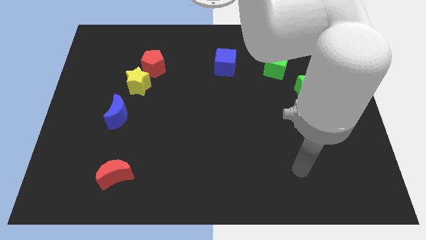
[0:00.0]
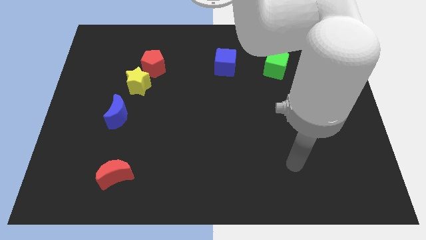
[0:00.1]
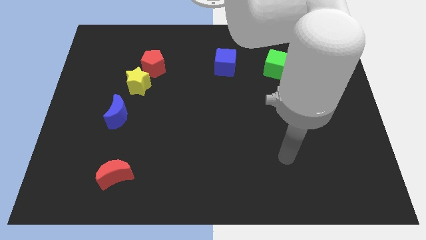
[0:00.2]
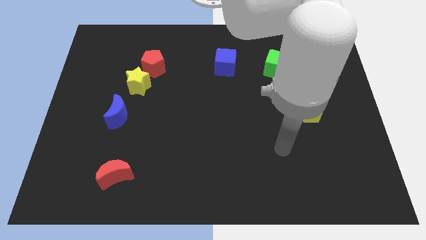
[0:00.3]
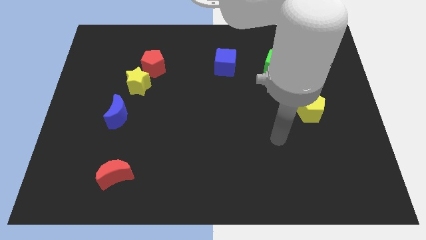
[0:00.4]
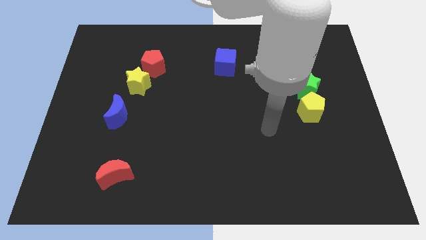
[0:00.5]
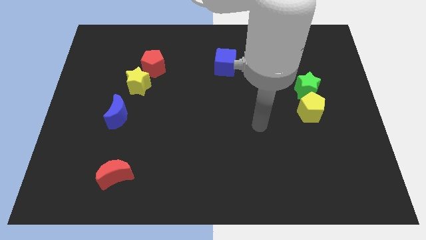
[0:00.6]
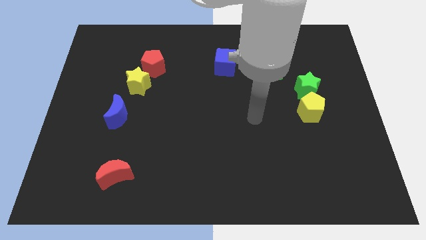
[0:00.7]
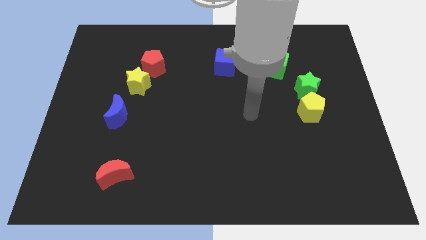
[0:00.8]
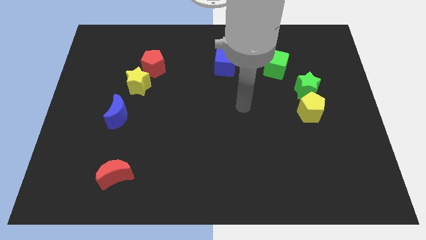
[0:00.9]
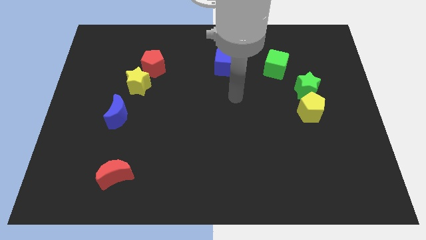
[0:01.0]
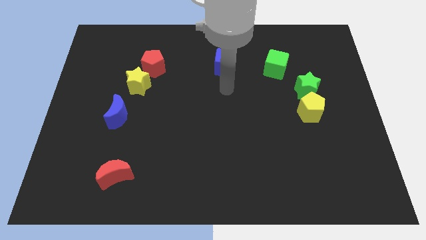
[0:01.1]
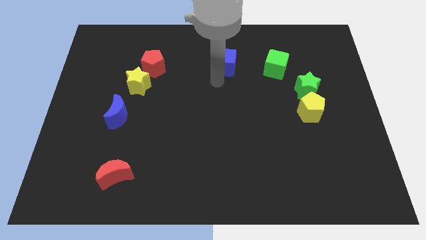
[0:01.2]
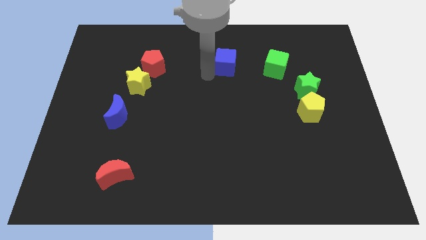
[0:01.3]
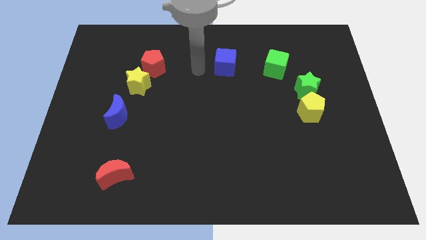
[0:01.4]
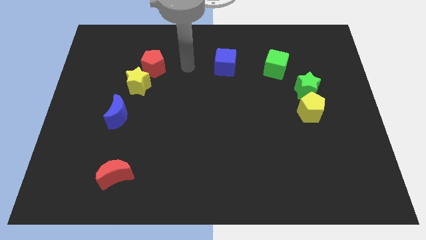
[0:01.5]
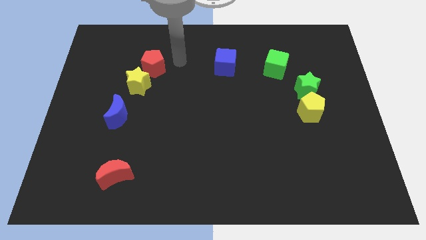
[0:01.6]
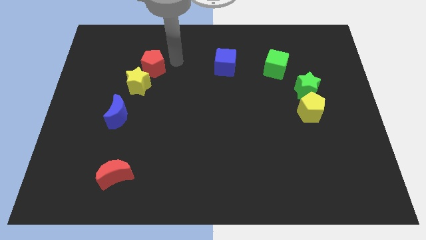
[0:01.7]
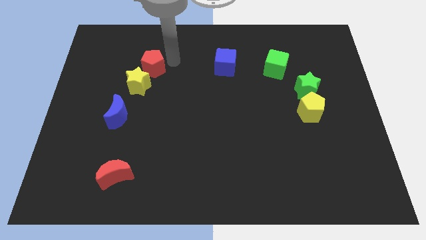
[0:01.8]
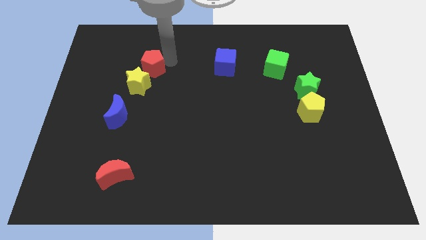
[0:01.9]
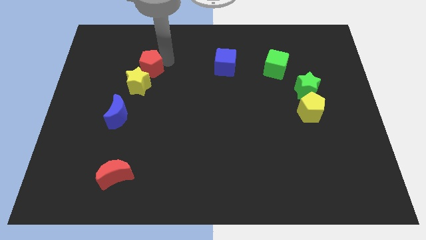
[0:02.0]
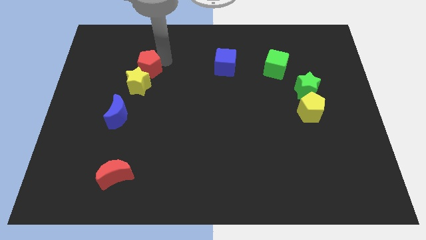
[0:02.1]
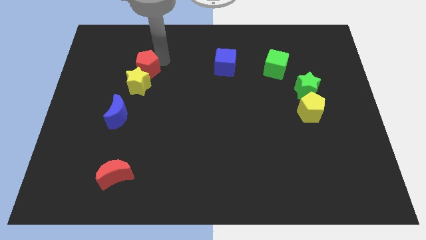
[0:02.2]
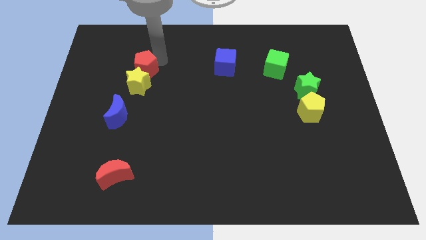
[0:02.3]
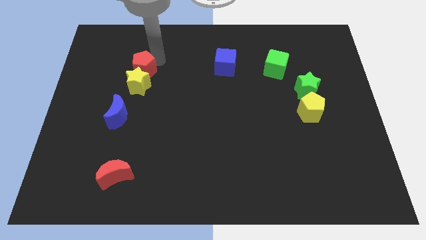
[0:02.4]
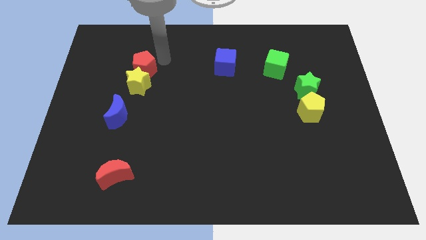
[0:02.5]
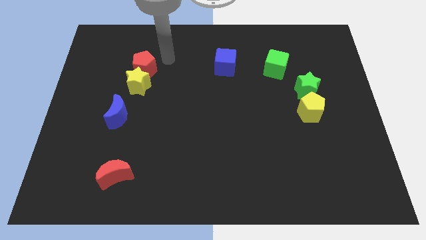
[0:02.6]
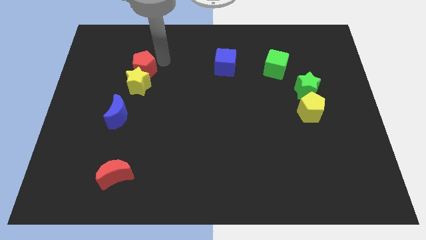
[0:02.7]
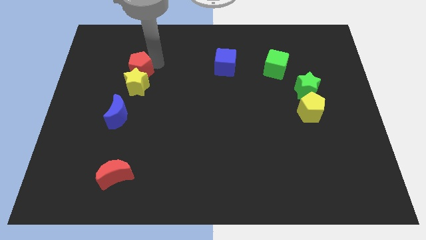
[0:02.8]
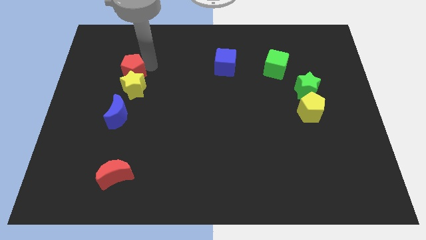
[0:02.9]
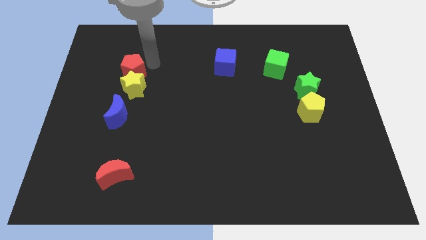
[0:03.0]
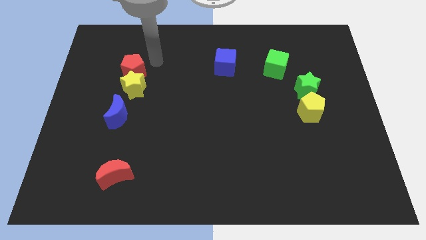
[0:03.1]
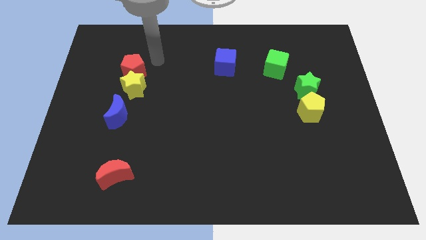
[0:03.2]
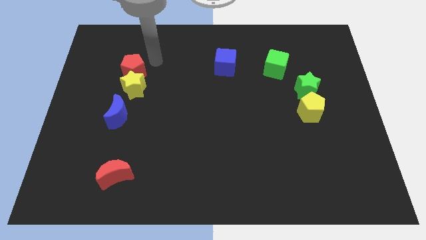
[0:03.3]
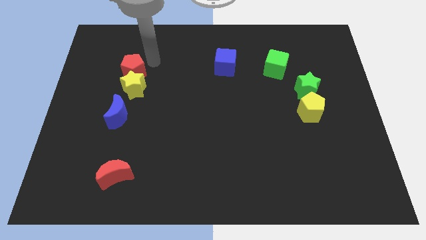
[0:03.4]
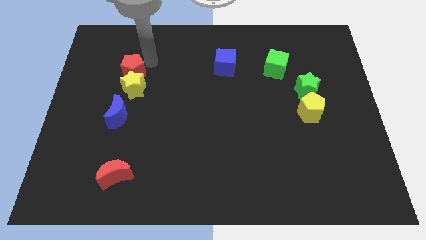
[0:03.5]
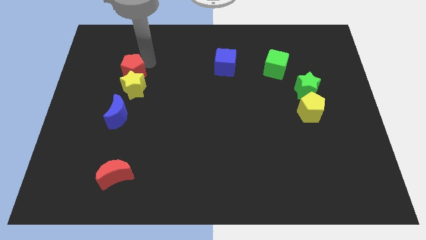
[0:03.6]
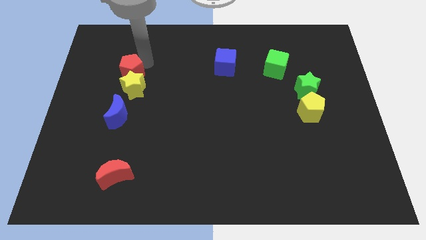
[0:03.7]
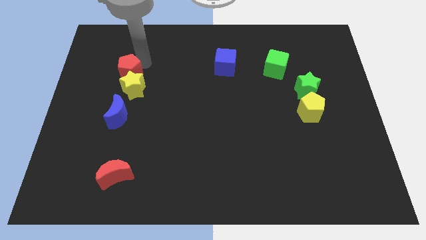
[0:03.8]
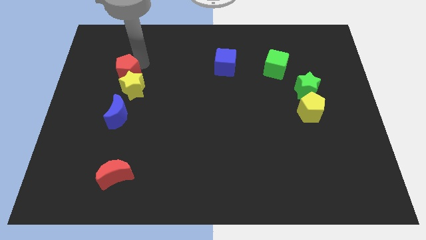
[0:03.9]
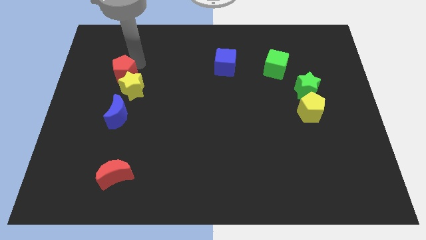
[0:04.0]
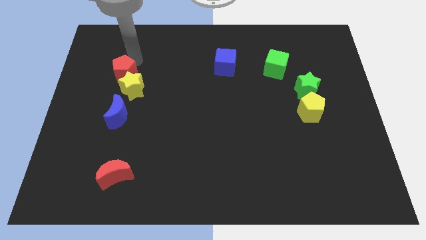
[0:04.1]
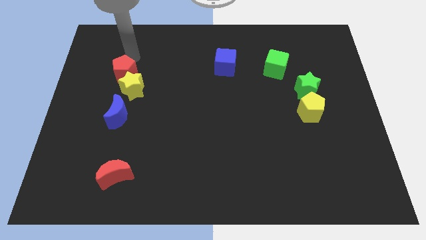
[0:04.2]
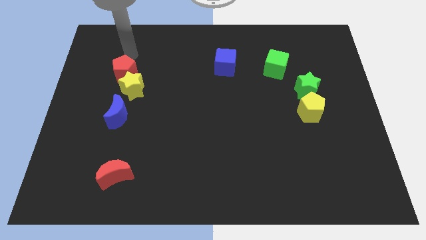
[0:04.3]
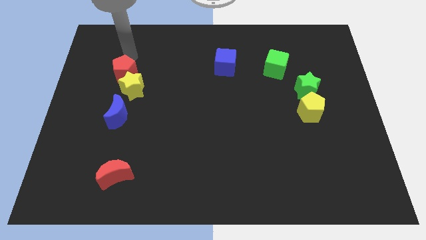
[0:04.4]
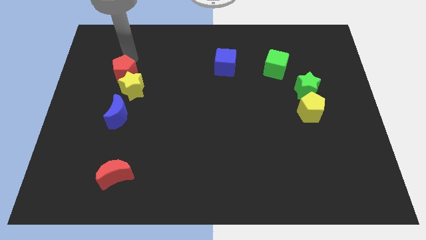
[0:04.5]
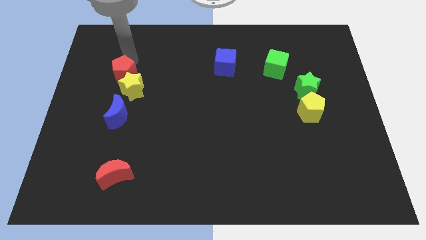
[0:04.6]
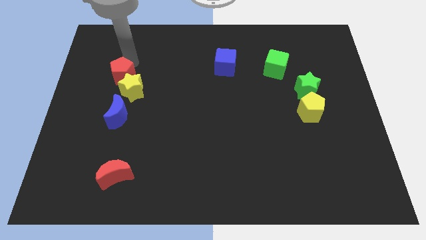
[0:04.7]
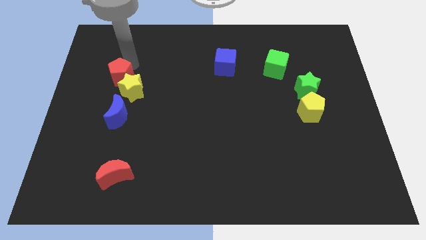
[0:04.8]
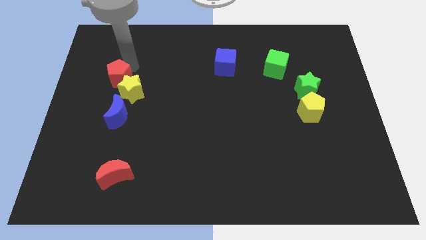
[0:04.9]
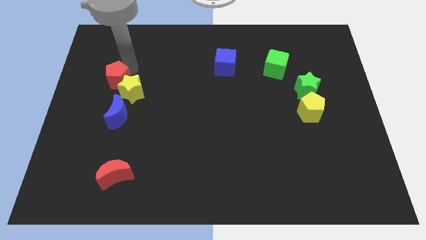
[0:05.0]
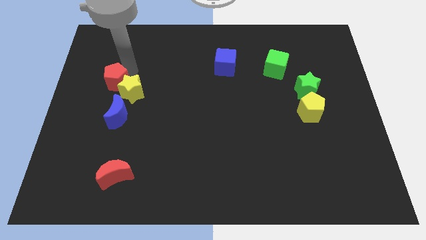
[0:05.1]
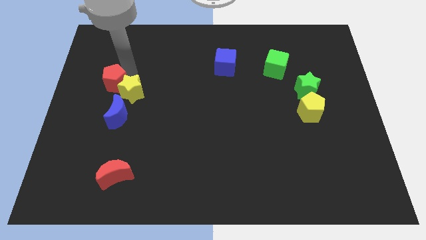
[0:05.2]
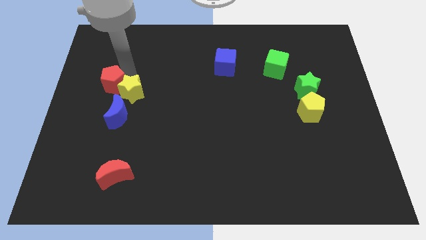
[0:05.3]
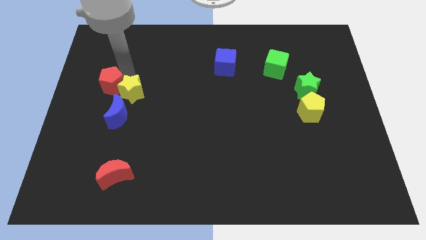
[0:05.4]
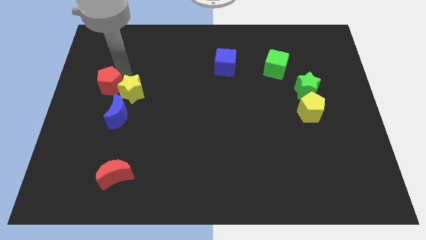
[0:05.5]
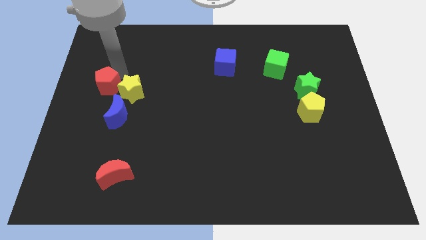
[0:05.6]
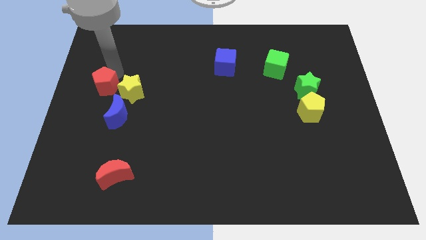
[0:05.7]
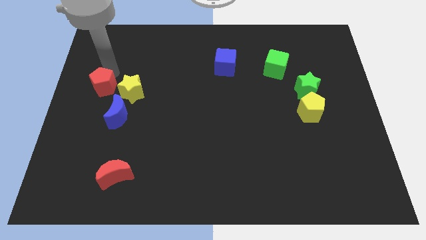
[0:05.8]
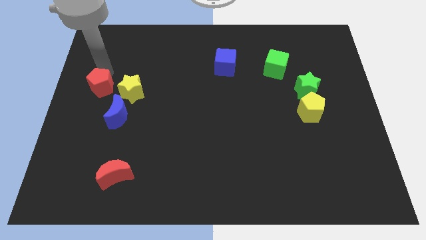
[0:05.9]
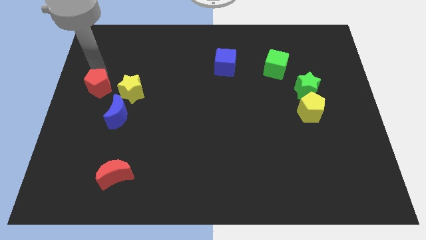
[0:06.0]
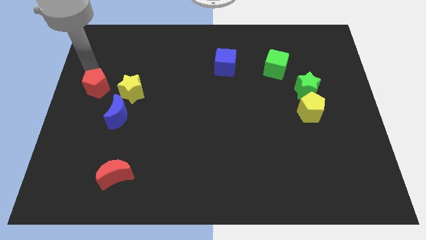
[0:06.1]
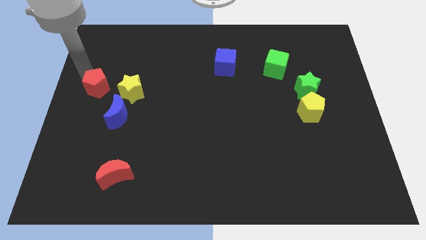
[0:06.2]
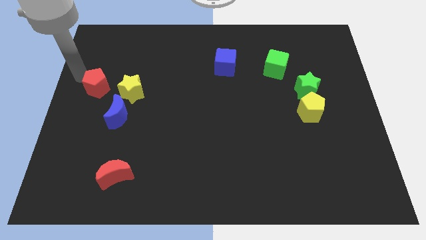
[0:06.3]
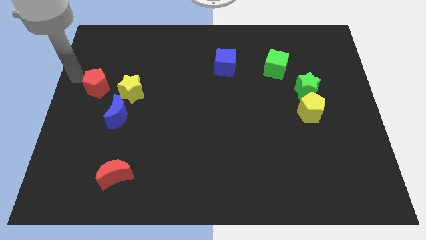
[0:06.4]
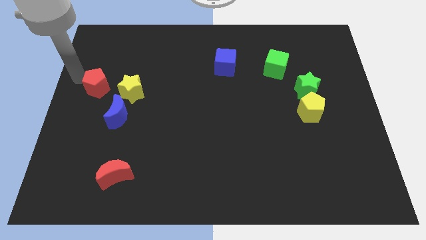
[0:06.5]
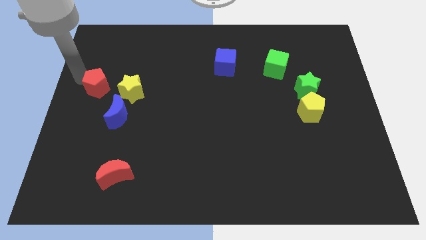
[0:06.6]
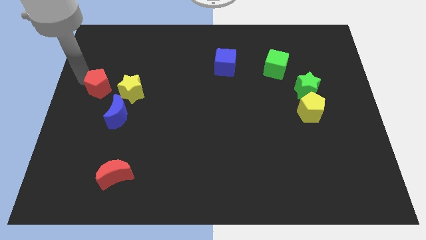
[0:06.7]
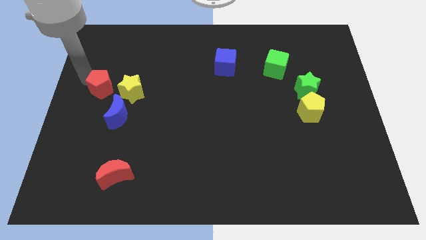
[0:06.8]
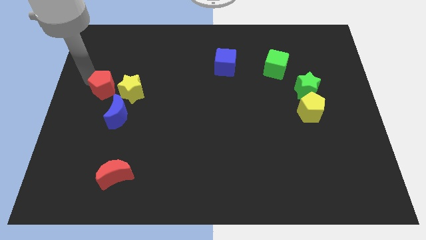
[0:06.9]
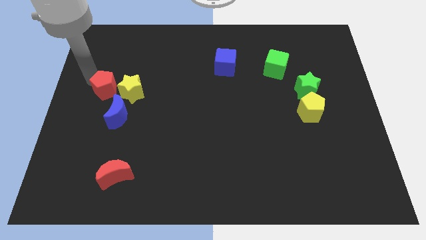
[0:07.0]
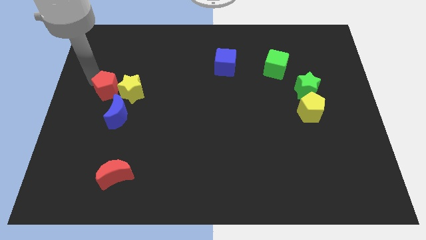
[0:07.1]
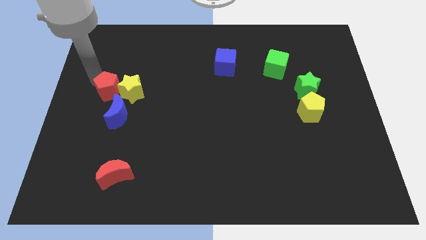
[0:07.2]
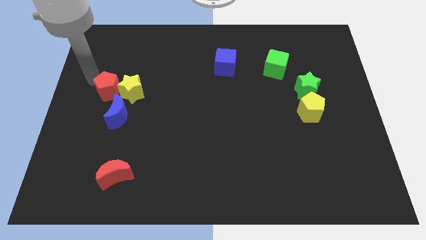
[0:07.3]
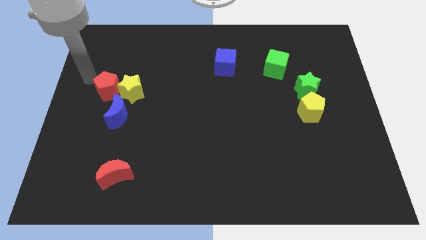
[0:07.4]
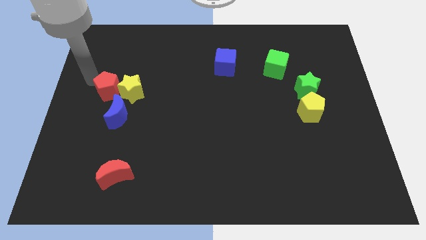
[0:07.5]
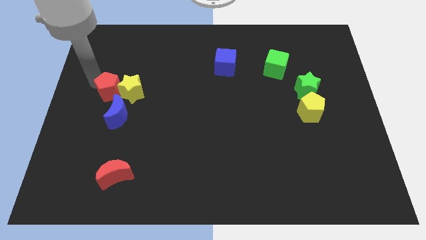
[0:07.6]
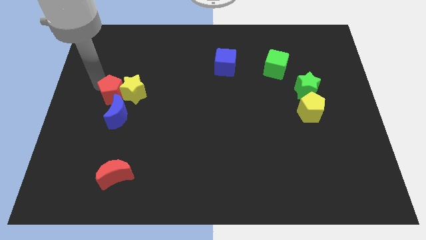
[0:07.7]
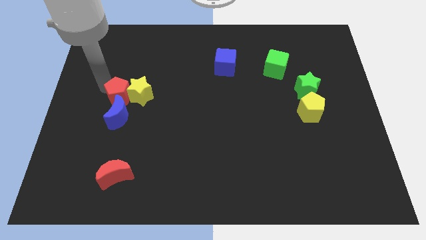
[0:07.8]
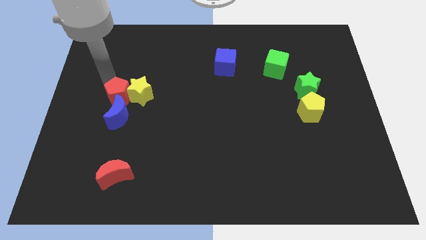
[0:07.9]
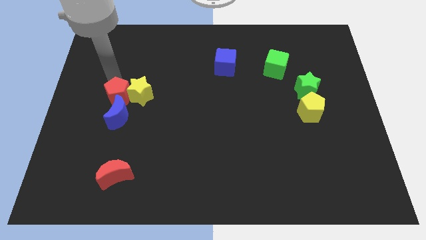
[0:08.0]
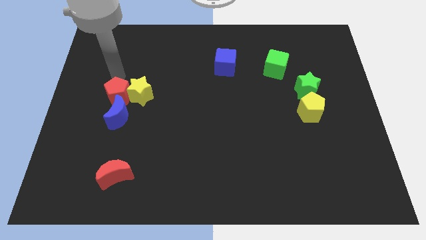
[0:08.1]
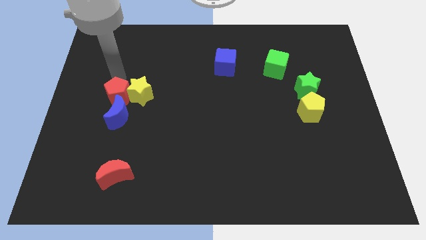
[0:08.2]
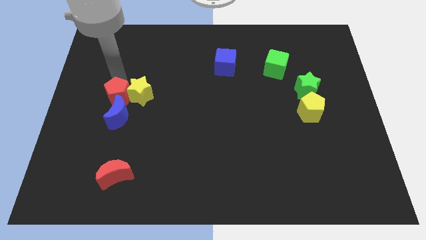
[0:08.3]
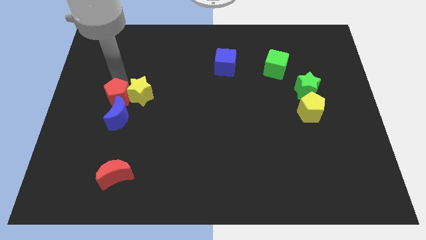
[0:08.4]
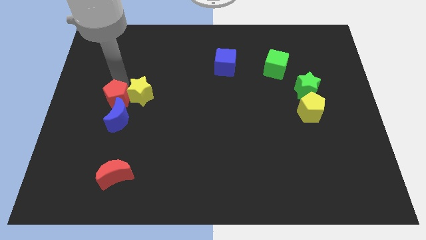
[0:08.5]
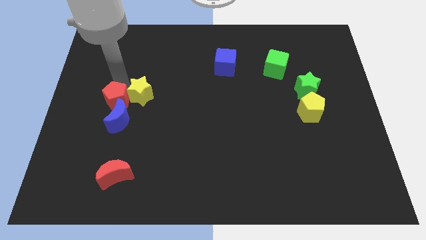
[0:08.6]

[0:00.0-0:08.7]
push the red pentagon next to the blue moon
